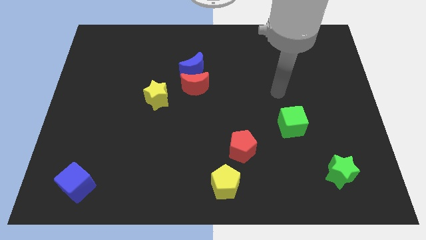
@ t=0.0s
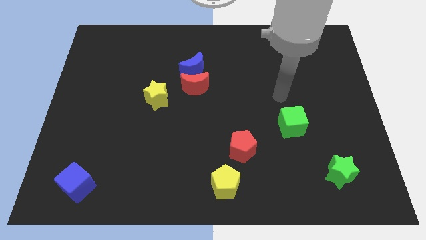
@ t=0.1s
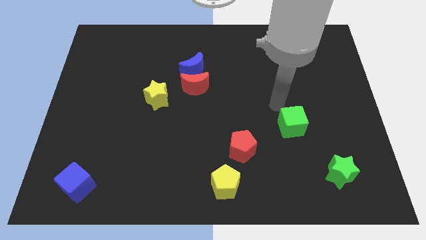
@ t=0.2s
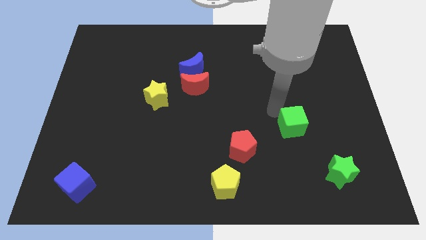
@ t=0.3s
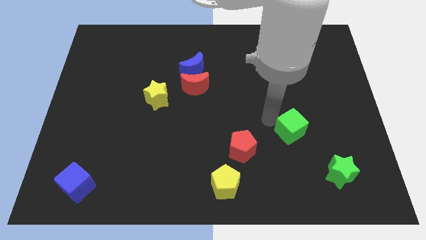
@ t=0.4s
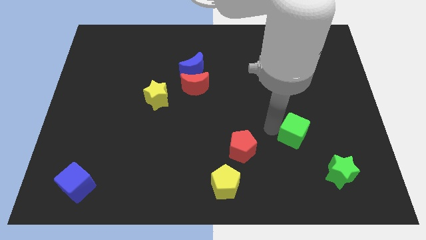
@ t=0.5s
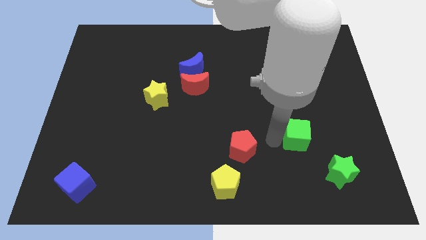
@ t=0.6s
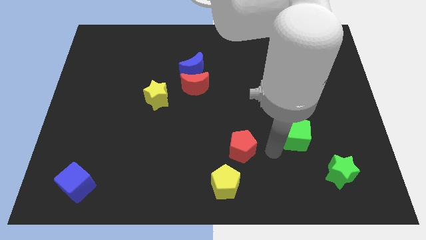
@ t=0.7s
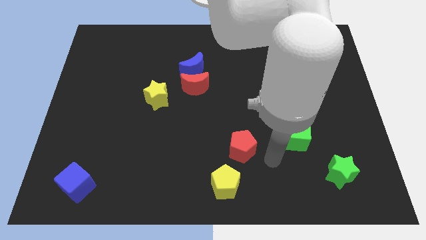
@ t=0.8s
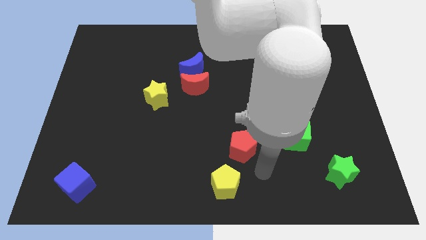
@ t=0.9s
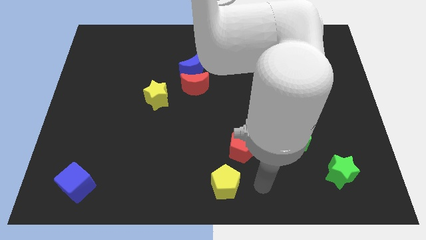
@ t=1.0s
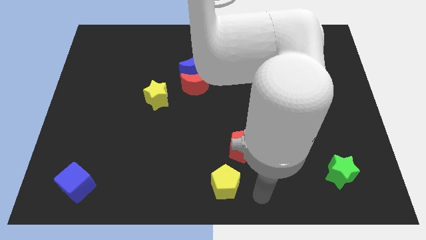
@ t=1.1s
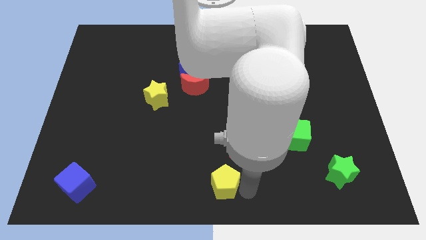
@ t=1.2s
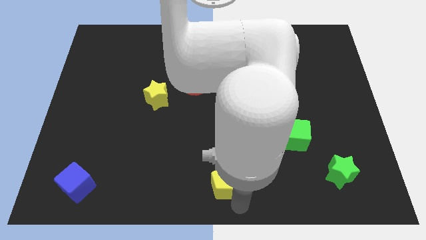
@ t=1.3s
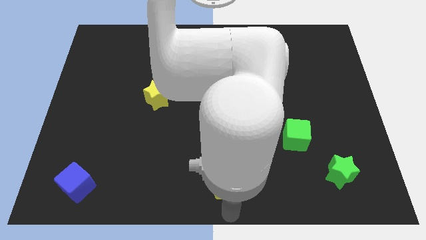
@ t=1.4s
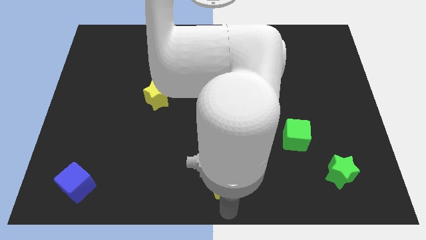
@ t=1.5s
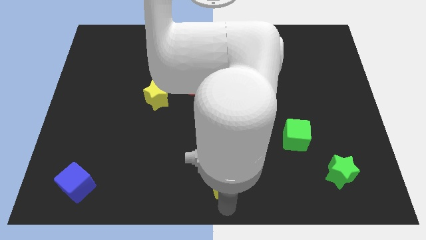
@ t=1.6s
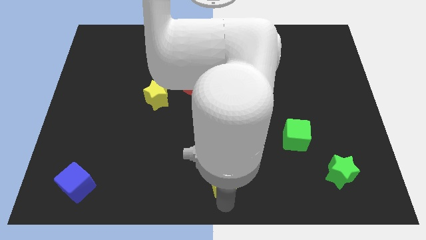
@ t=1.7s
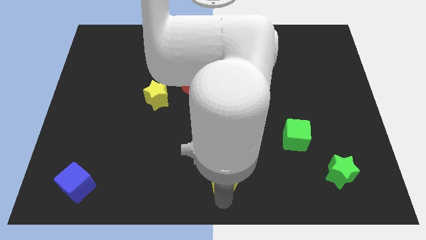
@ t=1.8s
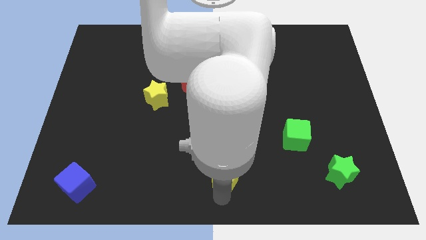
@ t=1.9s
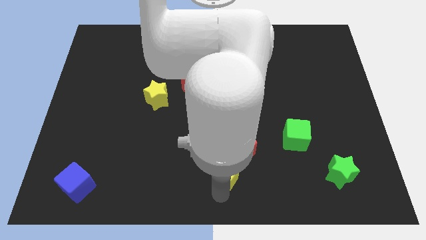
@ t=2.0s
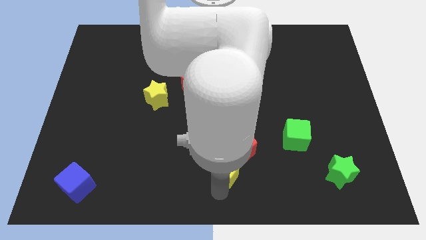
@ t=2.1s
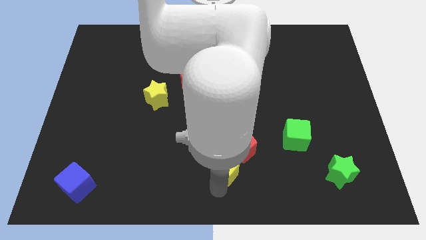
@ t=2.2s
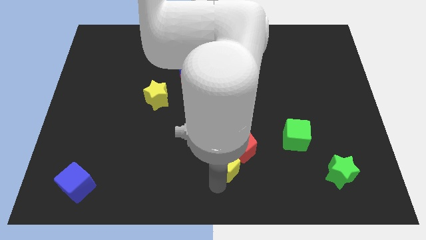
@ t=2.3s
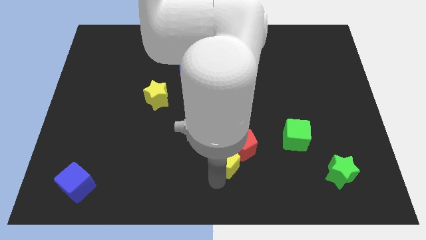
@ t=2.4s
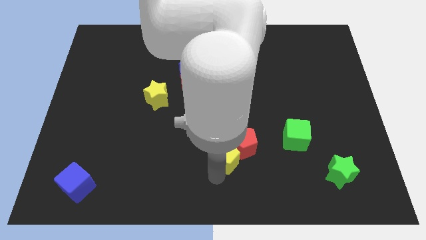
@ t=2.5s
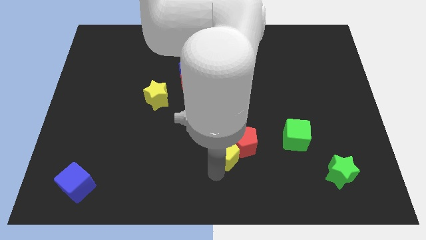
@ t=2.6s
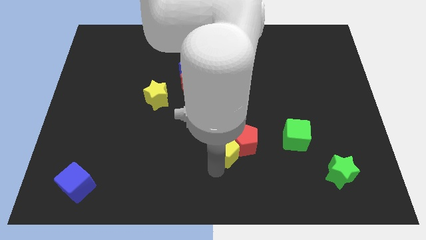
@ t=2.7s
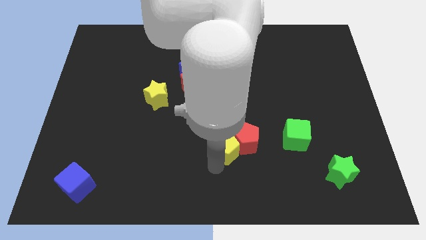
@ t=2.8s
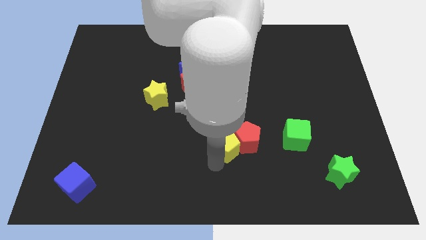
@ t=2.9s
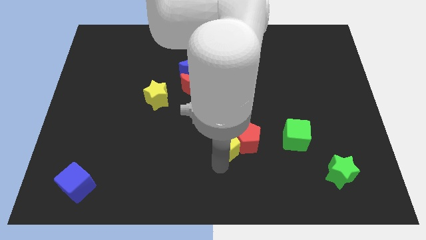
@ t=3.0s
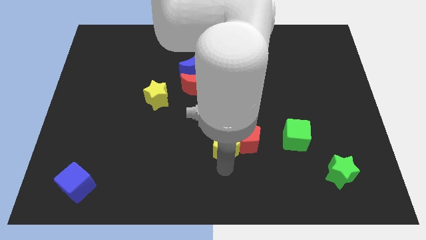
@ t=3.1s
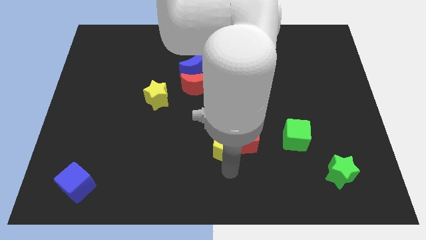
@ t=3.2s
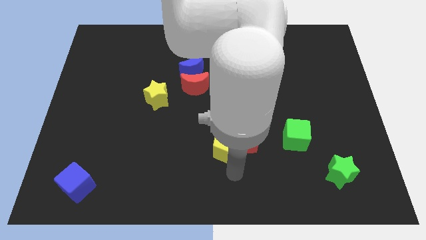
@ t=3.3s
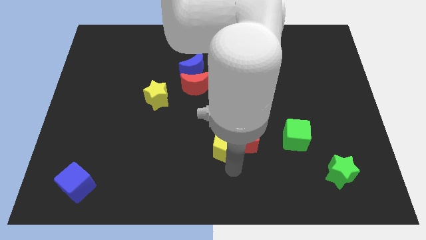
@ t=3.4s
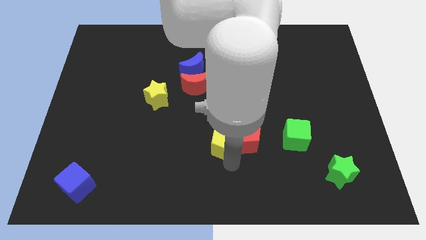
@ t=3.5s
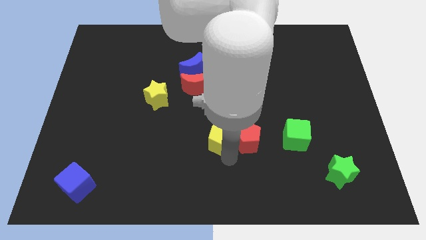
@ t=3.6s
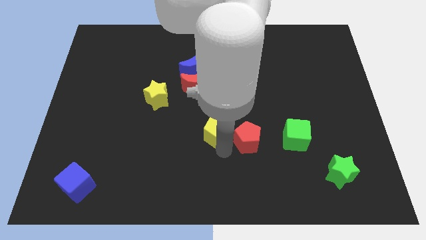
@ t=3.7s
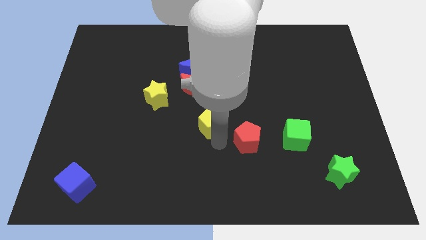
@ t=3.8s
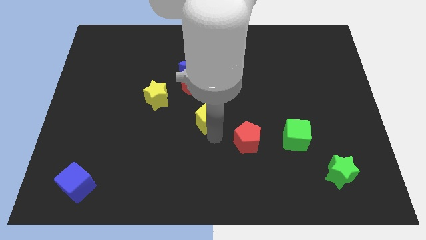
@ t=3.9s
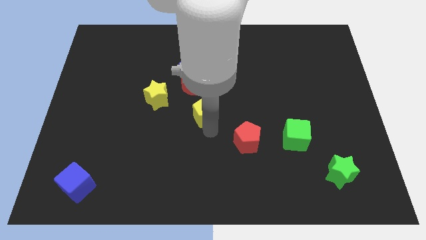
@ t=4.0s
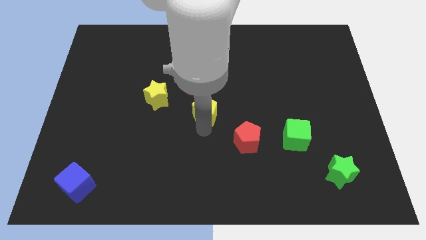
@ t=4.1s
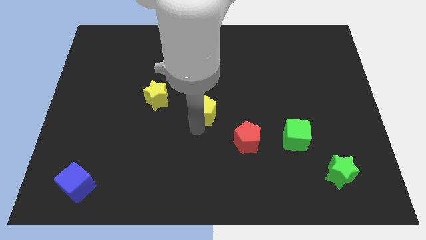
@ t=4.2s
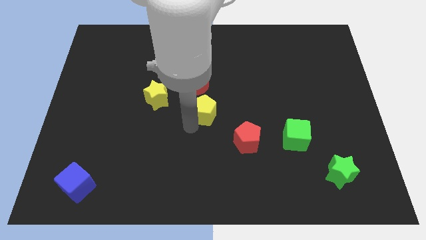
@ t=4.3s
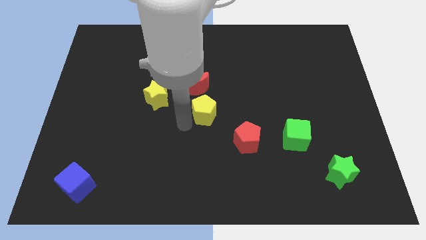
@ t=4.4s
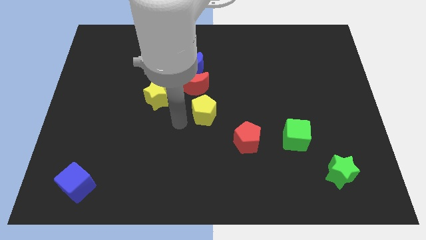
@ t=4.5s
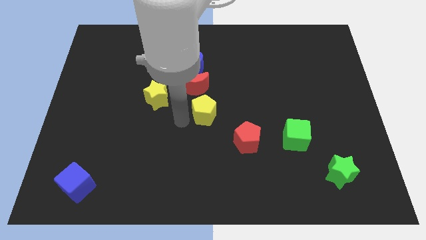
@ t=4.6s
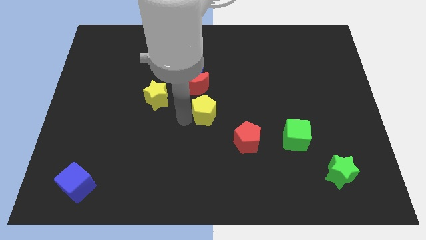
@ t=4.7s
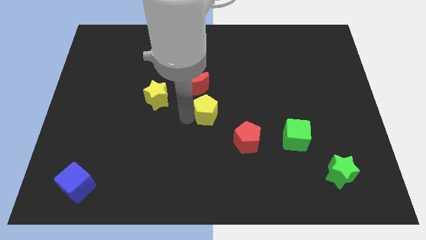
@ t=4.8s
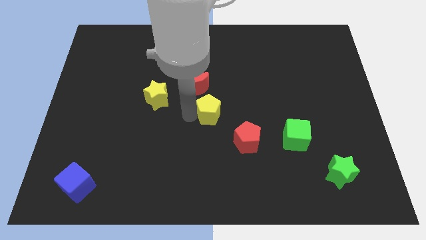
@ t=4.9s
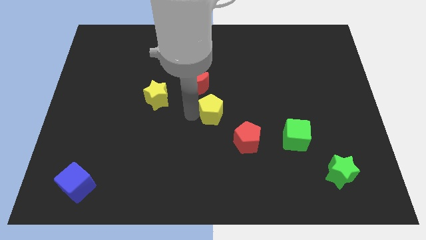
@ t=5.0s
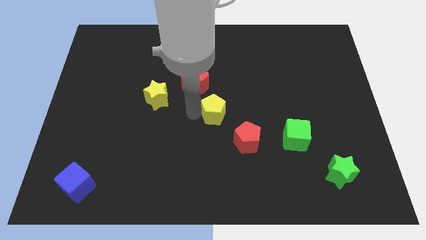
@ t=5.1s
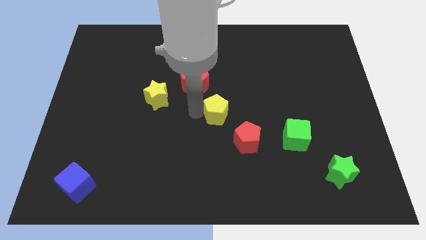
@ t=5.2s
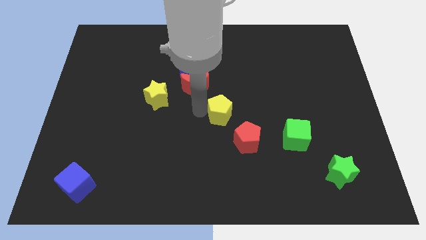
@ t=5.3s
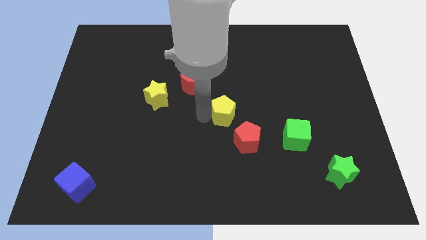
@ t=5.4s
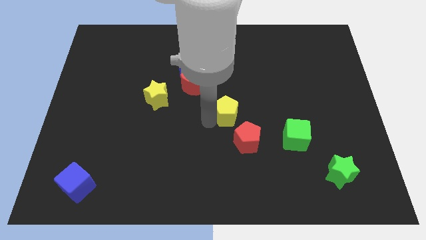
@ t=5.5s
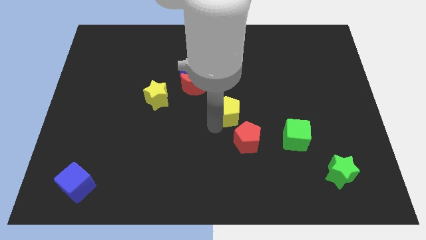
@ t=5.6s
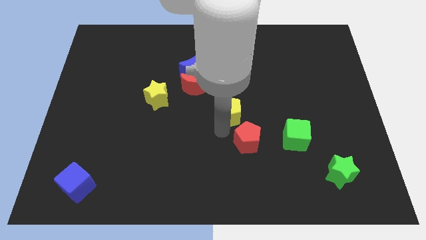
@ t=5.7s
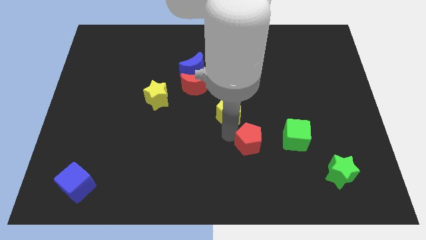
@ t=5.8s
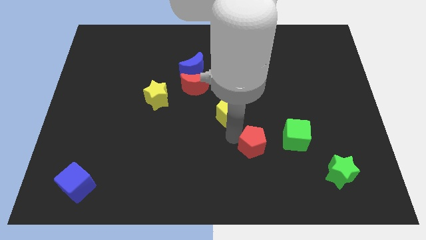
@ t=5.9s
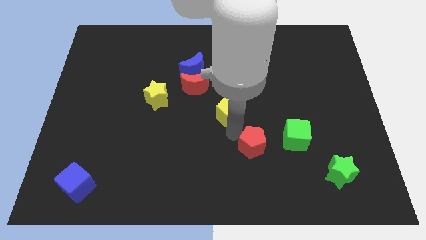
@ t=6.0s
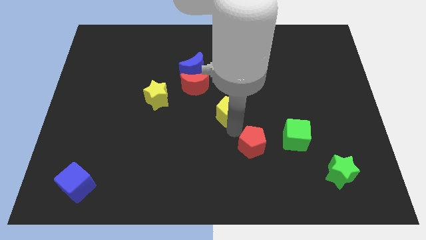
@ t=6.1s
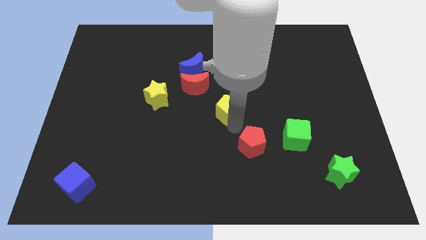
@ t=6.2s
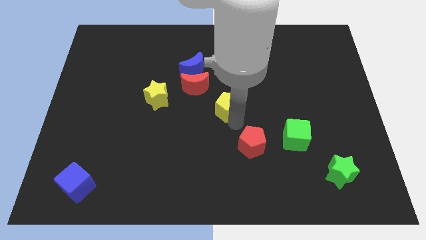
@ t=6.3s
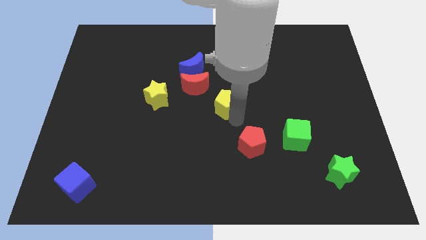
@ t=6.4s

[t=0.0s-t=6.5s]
slide the yellow pentagon up

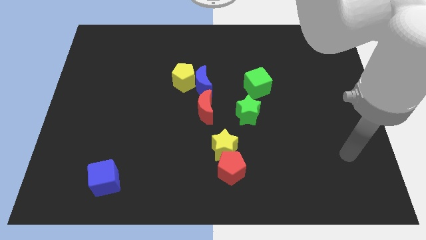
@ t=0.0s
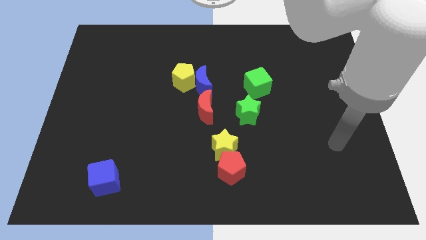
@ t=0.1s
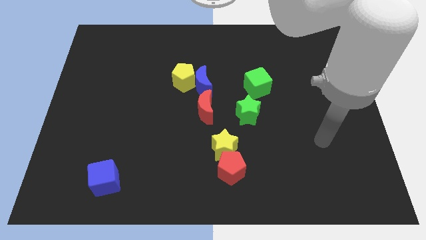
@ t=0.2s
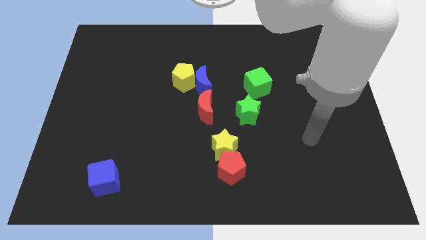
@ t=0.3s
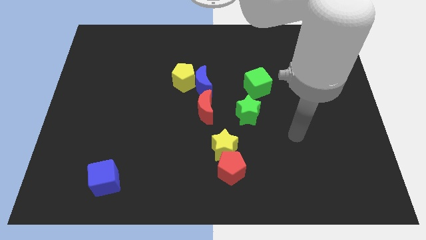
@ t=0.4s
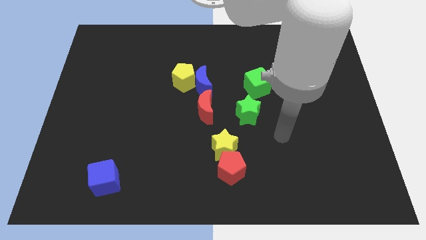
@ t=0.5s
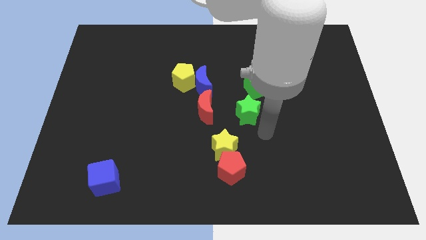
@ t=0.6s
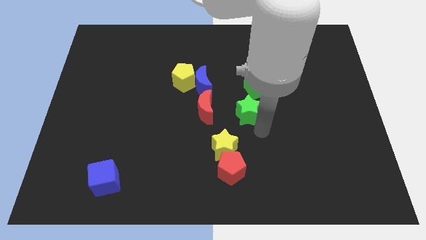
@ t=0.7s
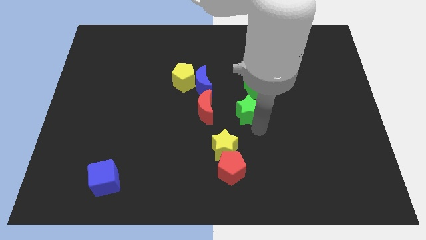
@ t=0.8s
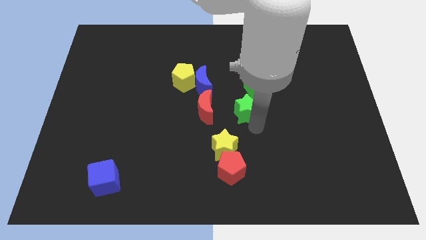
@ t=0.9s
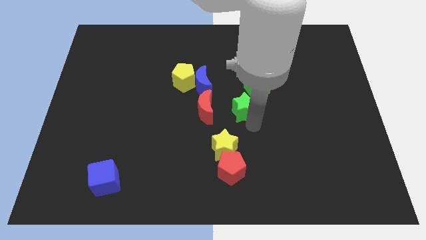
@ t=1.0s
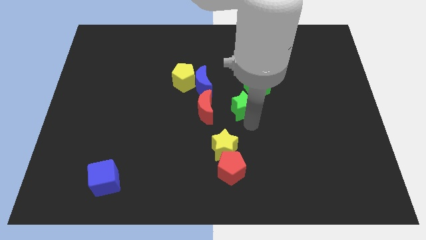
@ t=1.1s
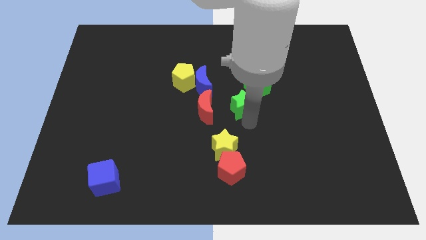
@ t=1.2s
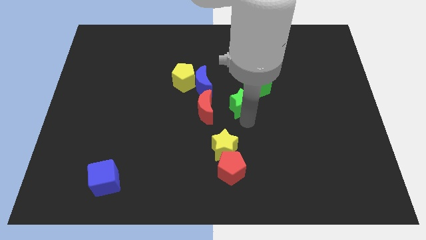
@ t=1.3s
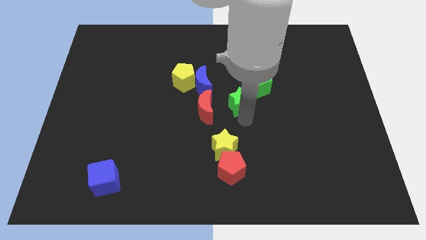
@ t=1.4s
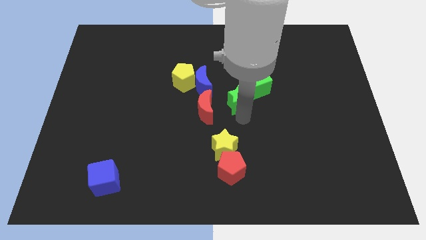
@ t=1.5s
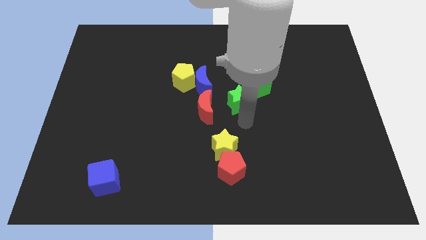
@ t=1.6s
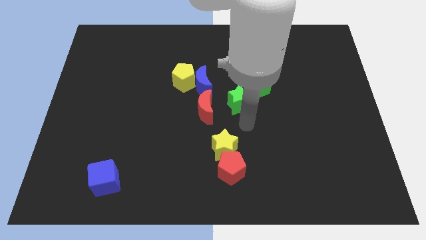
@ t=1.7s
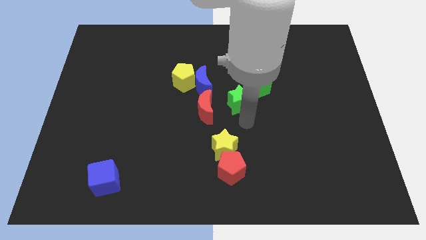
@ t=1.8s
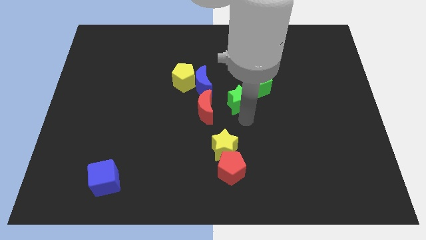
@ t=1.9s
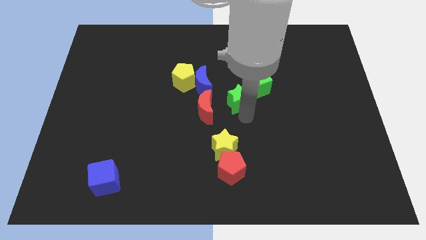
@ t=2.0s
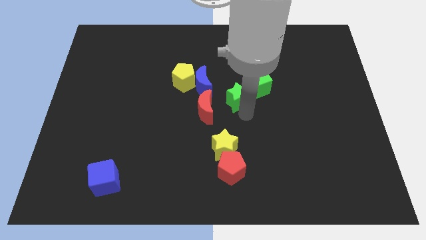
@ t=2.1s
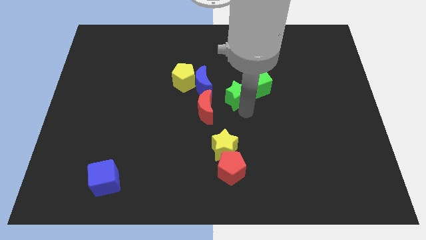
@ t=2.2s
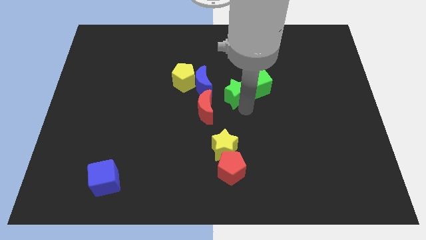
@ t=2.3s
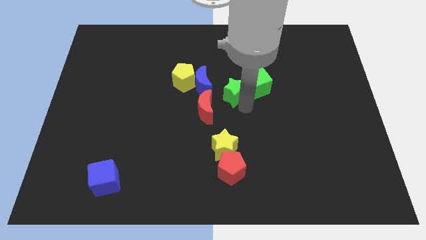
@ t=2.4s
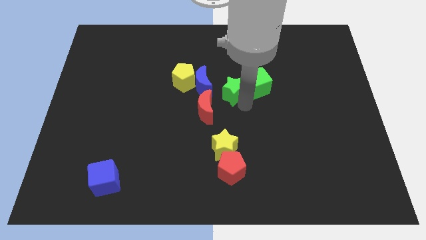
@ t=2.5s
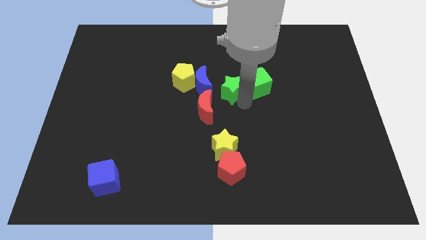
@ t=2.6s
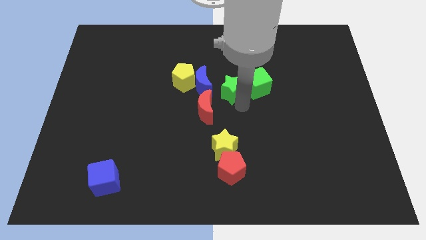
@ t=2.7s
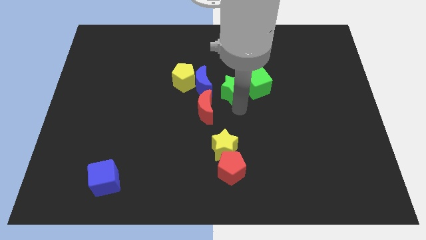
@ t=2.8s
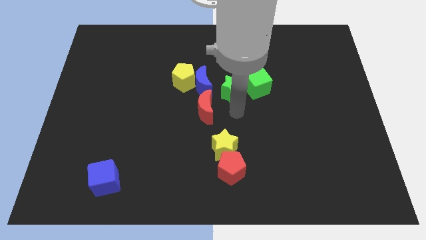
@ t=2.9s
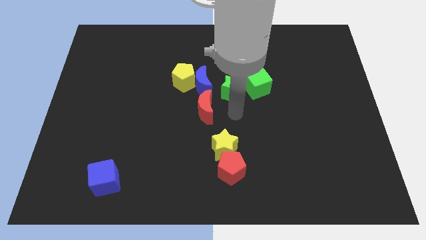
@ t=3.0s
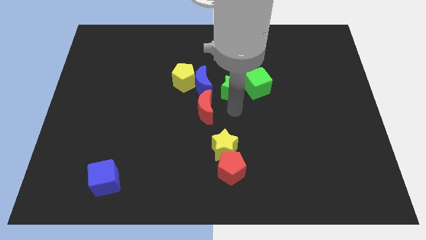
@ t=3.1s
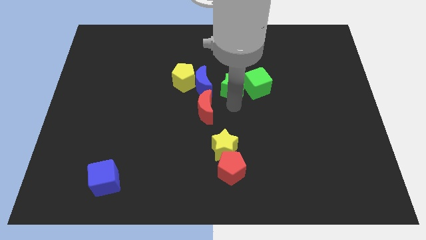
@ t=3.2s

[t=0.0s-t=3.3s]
move the green star slightly up
